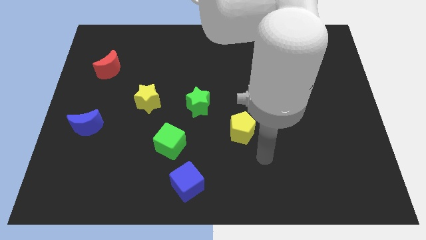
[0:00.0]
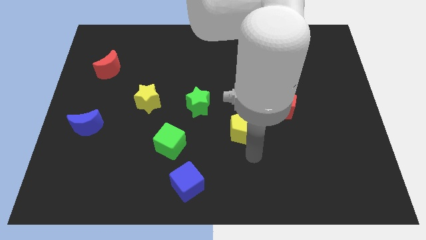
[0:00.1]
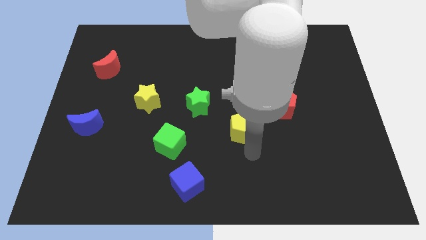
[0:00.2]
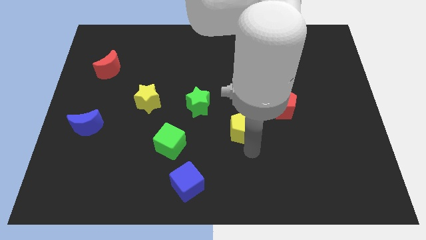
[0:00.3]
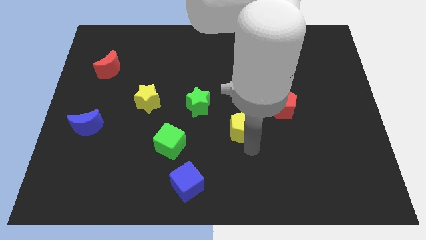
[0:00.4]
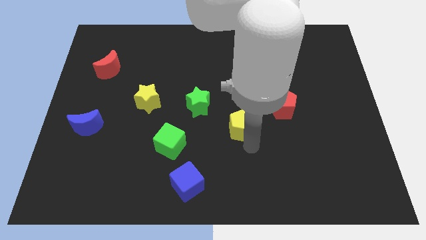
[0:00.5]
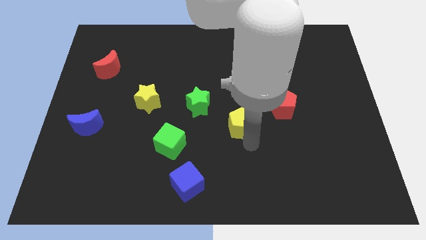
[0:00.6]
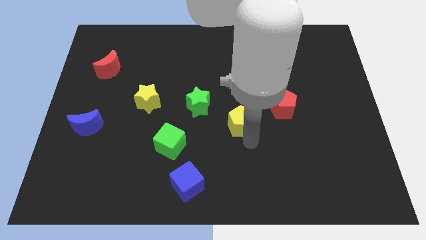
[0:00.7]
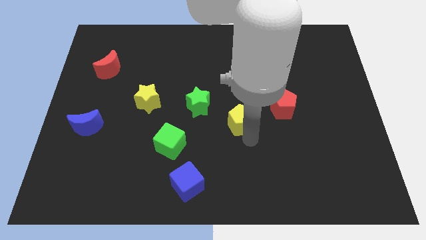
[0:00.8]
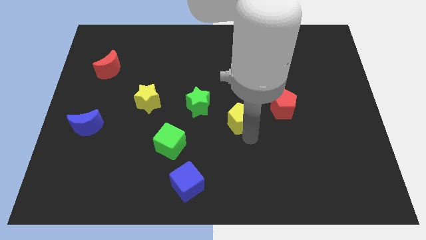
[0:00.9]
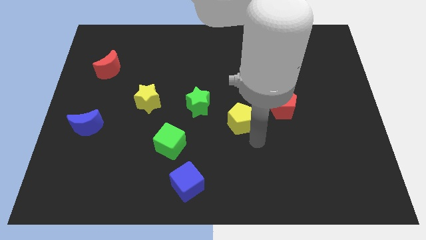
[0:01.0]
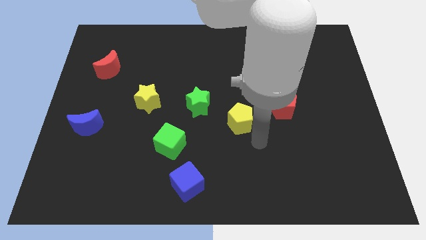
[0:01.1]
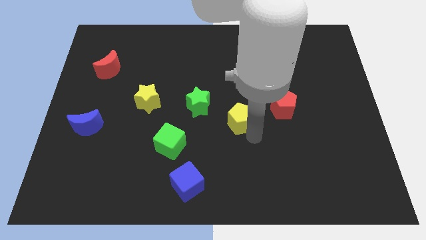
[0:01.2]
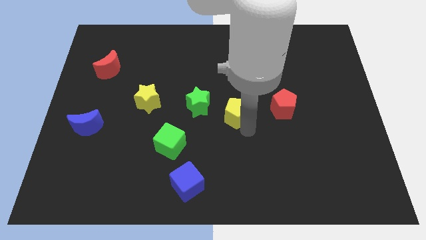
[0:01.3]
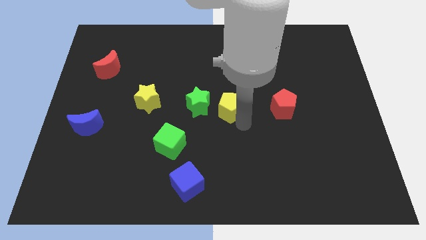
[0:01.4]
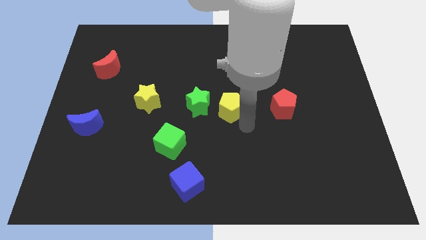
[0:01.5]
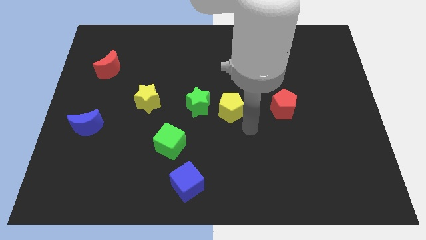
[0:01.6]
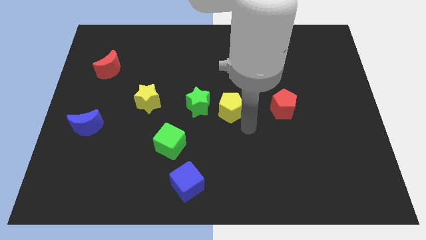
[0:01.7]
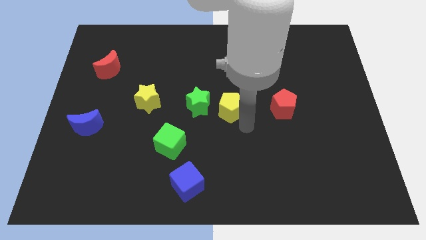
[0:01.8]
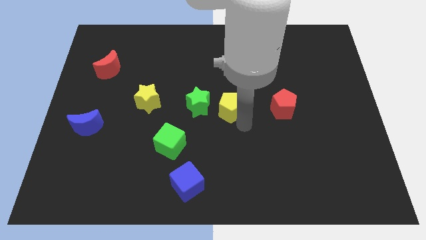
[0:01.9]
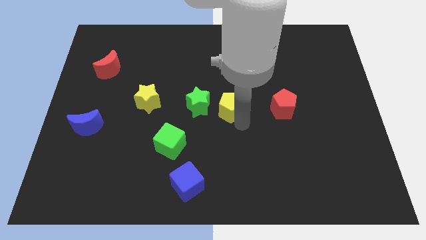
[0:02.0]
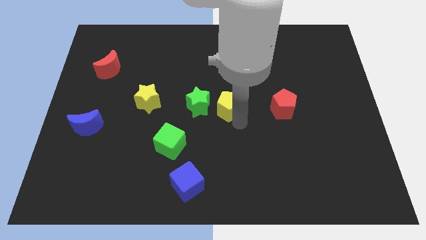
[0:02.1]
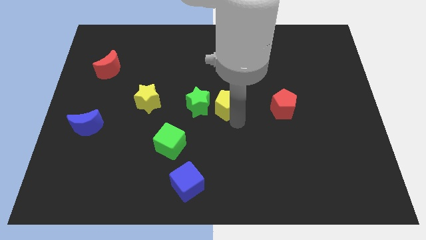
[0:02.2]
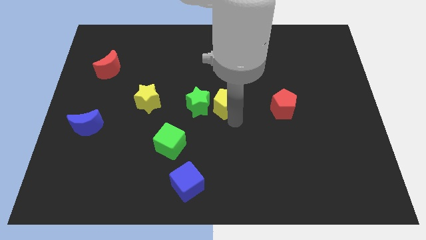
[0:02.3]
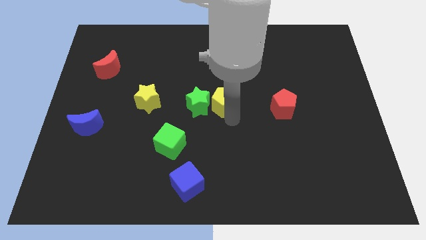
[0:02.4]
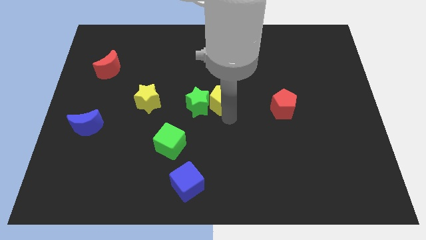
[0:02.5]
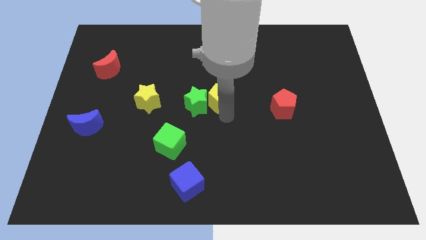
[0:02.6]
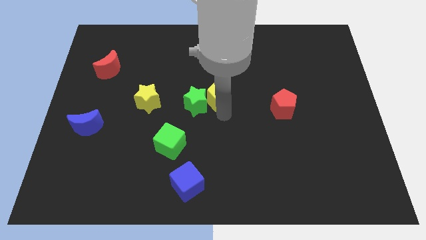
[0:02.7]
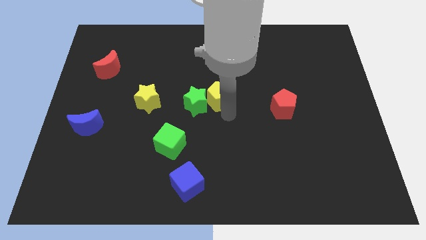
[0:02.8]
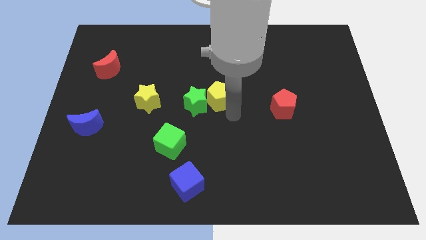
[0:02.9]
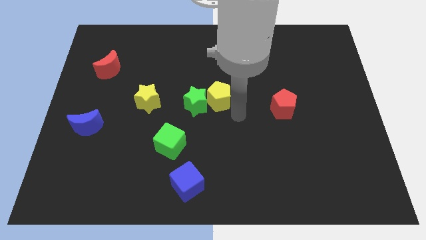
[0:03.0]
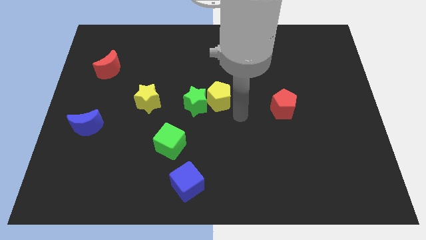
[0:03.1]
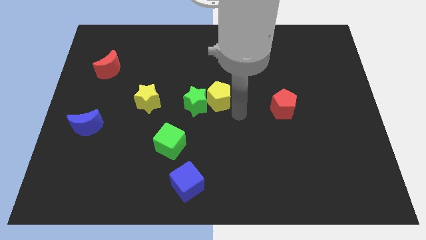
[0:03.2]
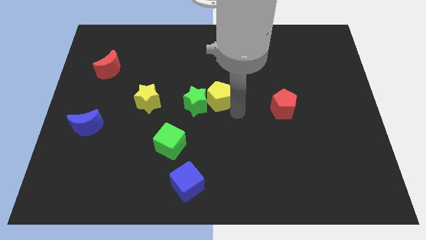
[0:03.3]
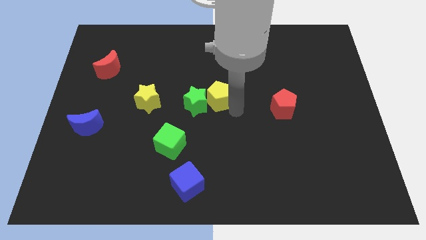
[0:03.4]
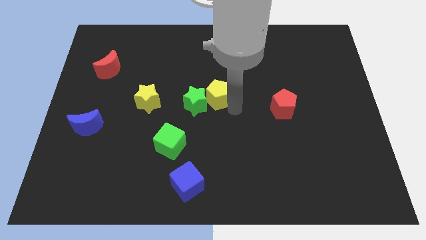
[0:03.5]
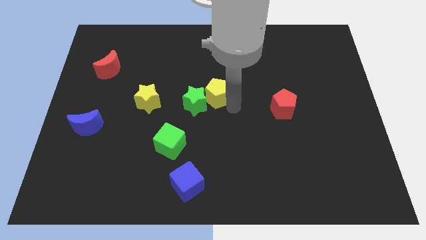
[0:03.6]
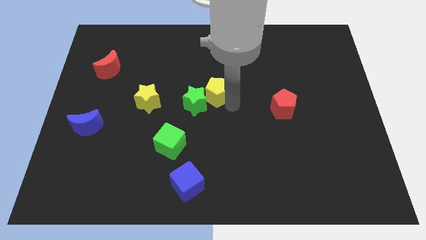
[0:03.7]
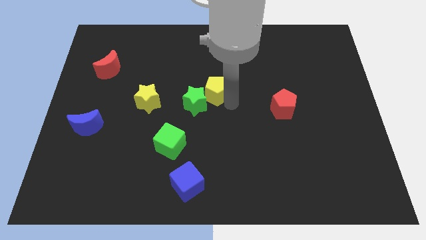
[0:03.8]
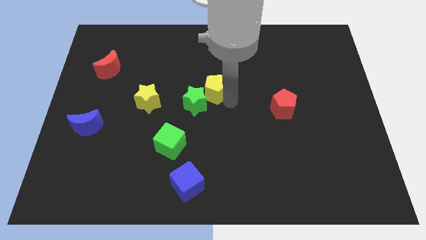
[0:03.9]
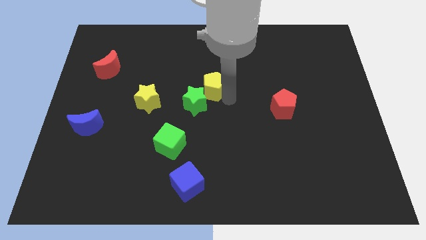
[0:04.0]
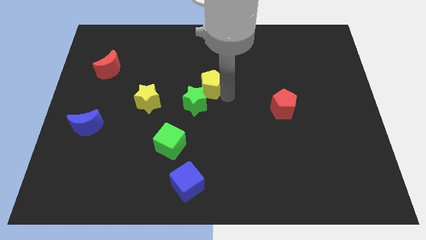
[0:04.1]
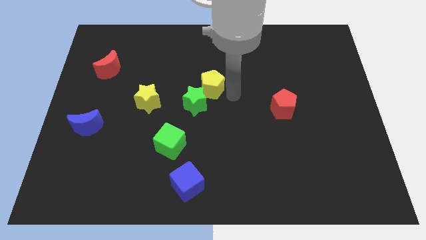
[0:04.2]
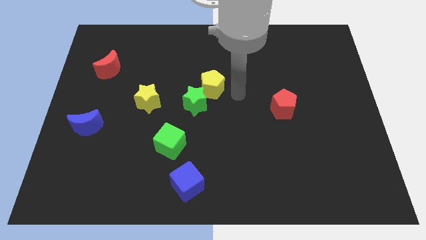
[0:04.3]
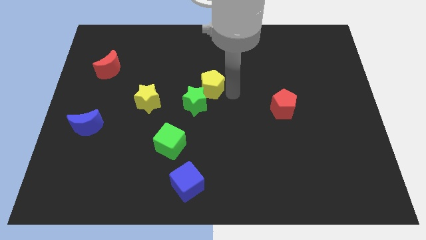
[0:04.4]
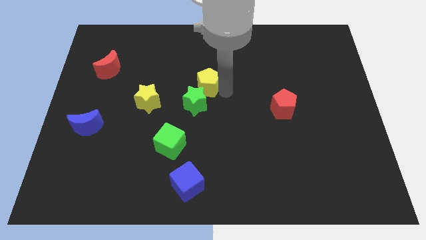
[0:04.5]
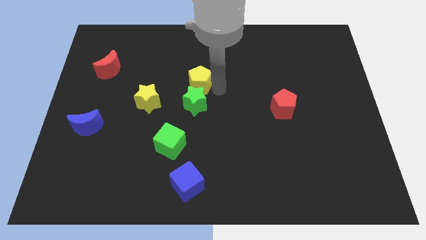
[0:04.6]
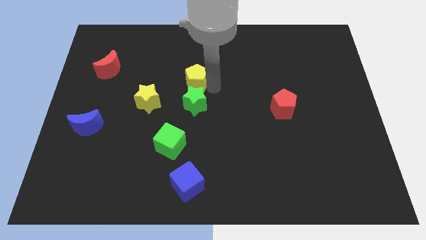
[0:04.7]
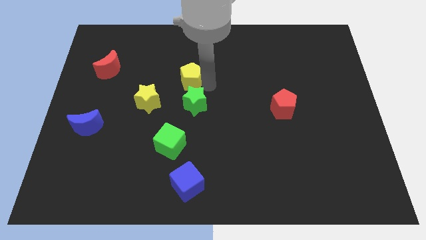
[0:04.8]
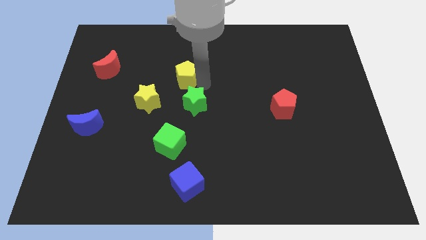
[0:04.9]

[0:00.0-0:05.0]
push the yellow pentagon up and to the left

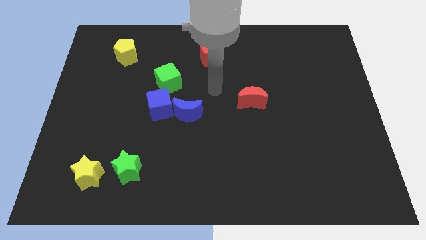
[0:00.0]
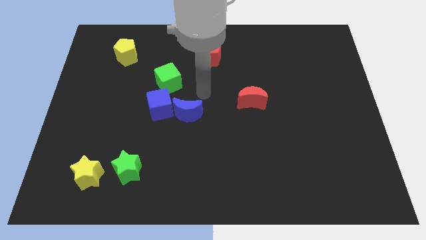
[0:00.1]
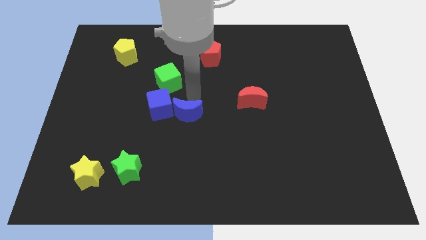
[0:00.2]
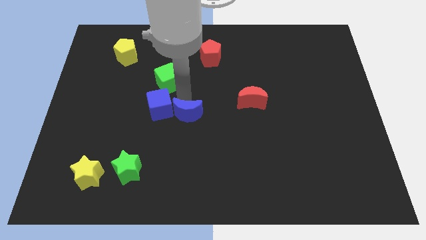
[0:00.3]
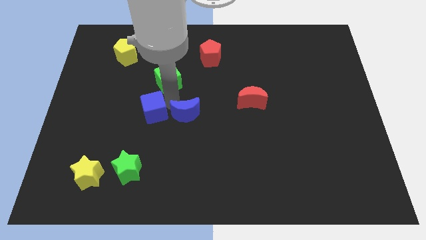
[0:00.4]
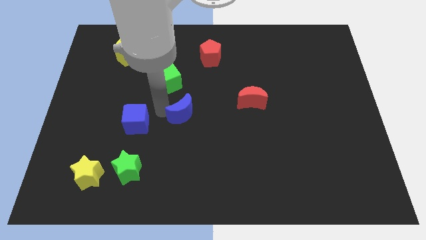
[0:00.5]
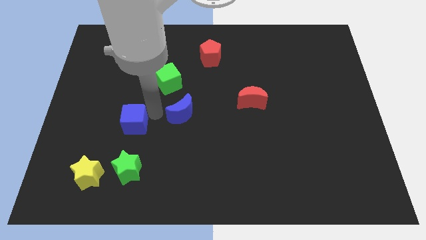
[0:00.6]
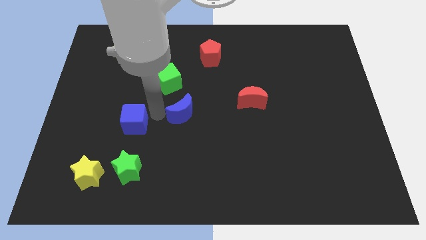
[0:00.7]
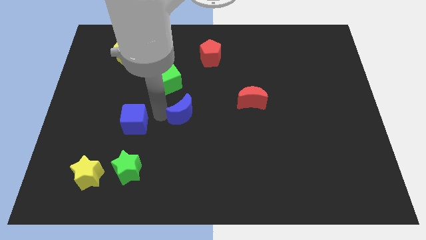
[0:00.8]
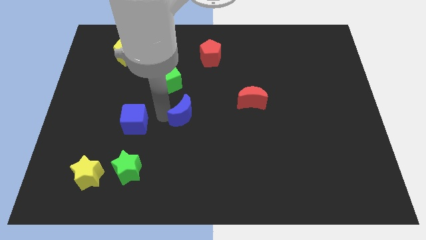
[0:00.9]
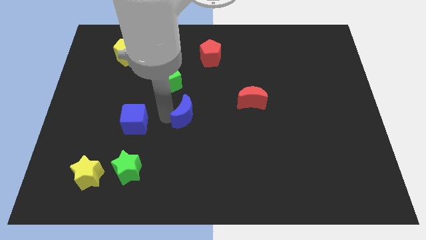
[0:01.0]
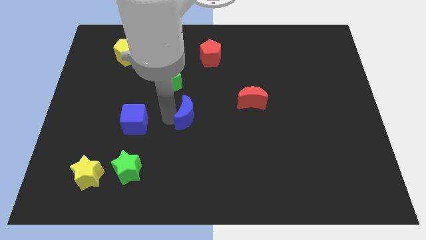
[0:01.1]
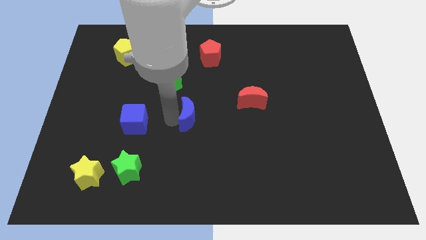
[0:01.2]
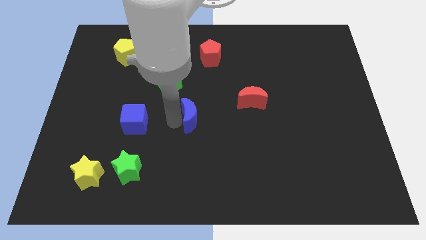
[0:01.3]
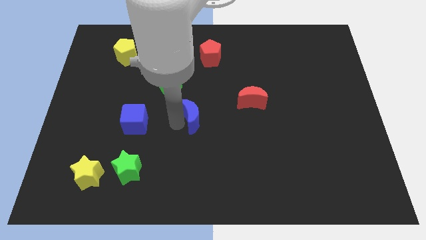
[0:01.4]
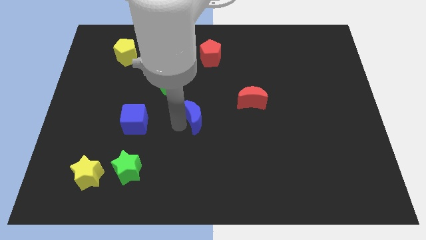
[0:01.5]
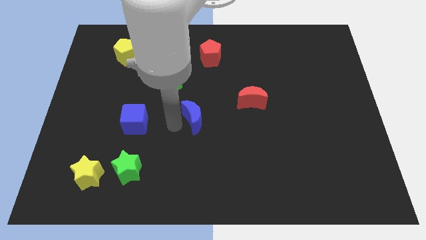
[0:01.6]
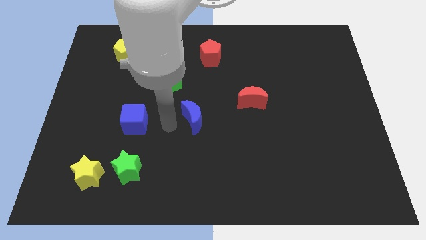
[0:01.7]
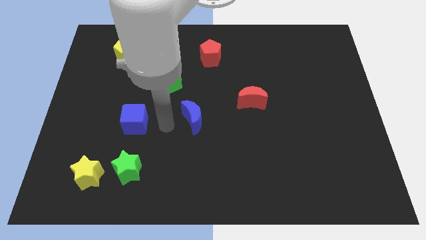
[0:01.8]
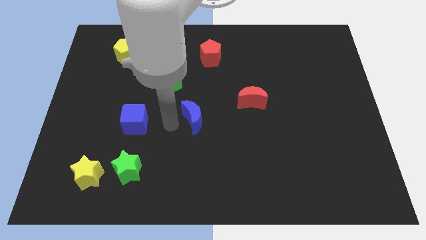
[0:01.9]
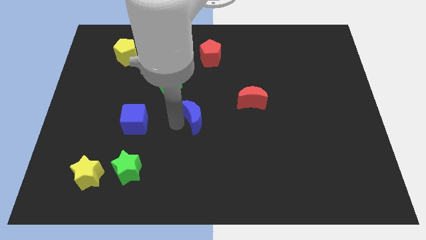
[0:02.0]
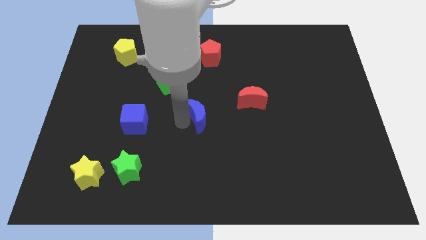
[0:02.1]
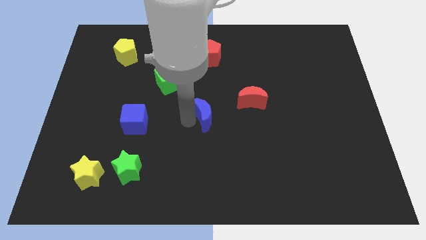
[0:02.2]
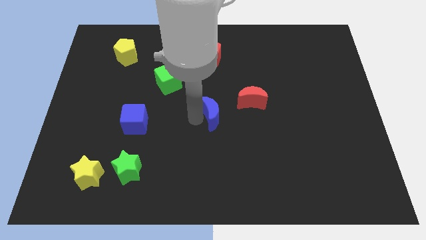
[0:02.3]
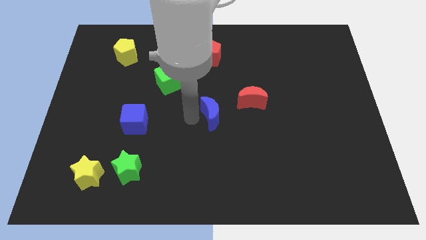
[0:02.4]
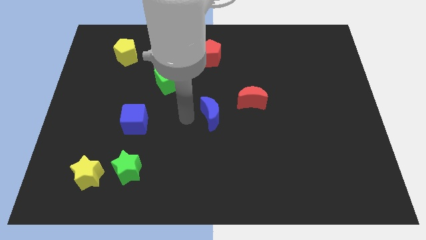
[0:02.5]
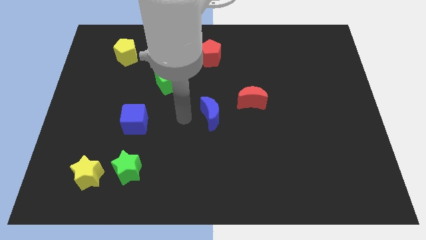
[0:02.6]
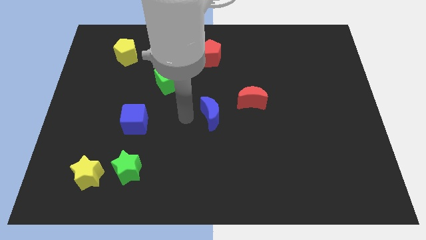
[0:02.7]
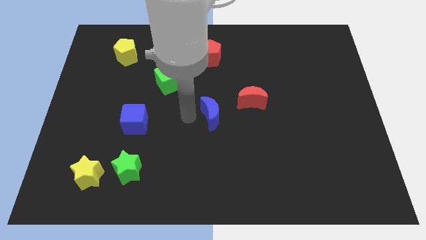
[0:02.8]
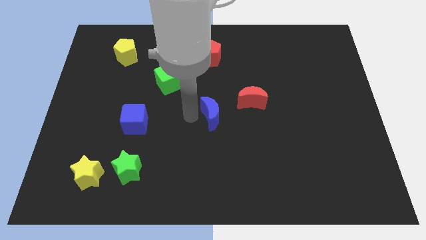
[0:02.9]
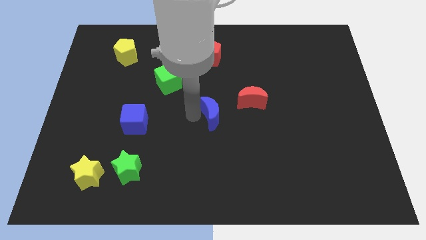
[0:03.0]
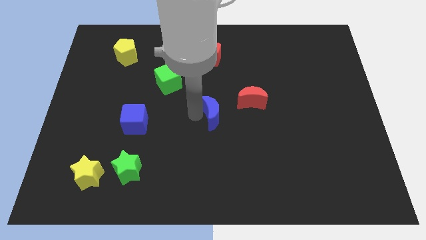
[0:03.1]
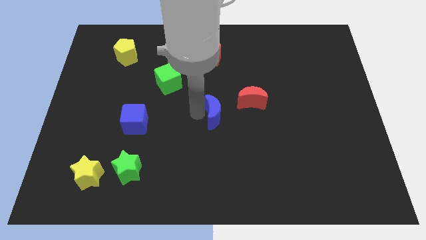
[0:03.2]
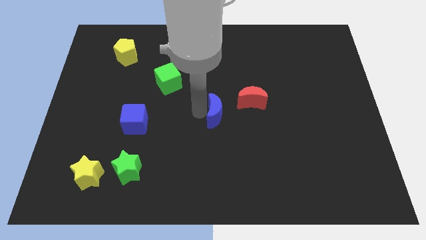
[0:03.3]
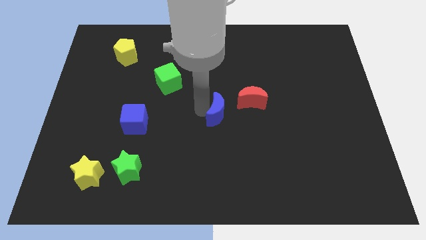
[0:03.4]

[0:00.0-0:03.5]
slide the blue moon slightly right
